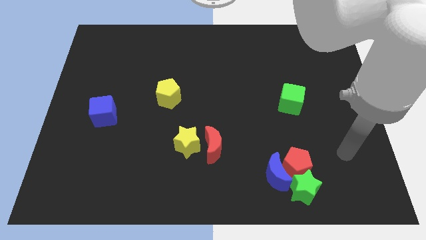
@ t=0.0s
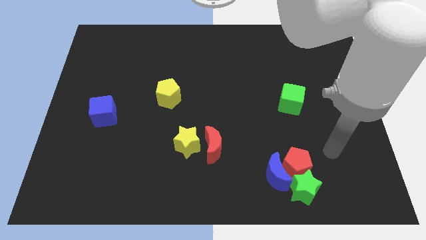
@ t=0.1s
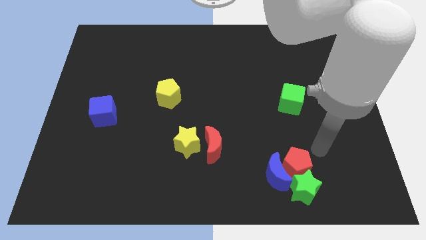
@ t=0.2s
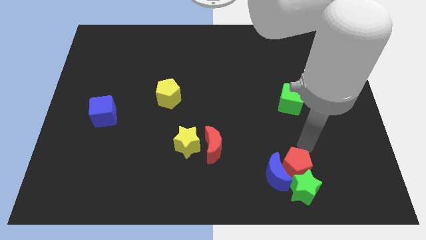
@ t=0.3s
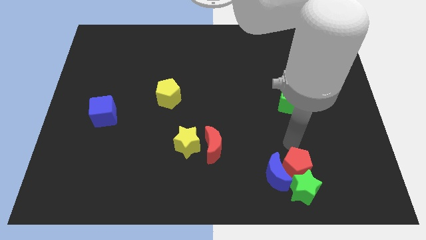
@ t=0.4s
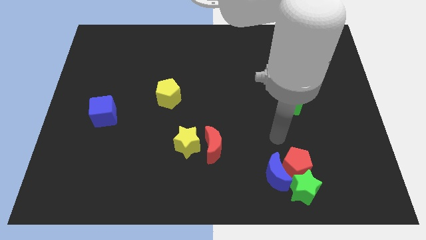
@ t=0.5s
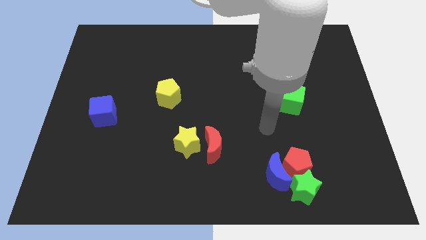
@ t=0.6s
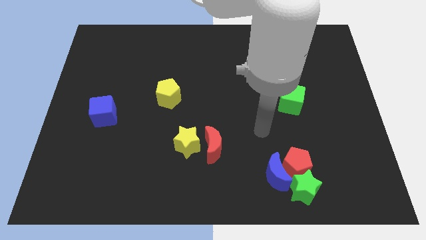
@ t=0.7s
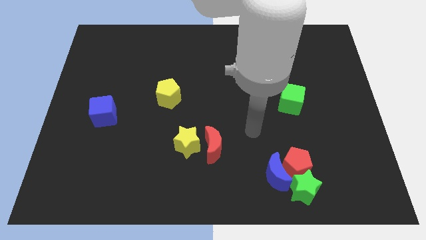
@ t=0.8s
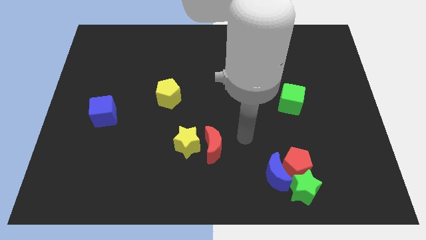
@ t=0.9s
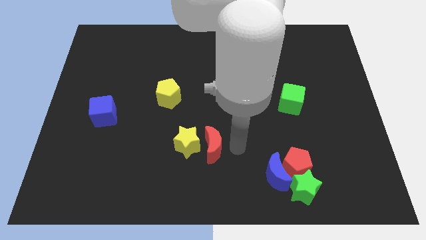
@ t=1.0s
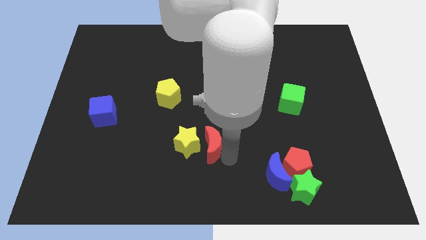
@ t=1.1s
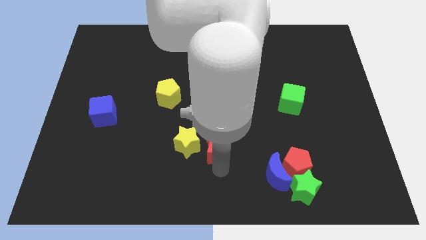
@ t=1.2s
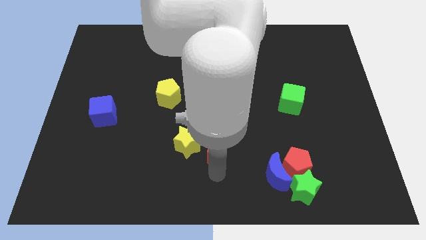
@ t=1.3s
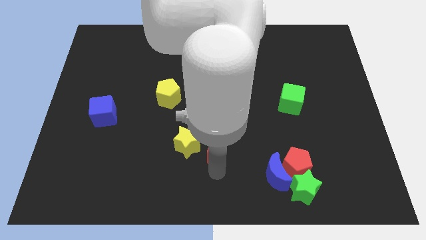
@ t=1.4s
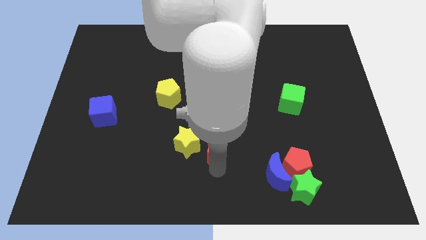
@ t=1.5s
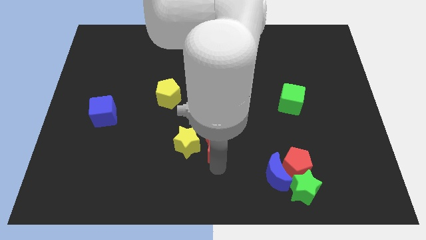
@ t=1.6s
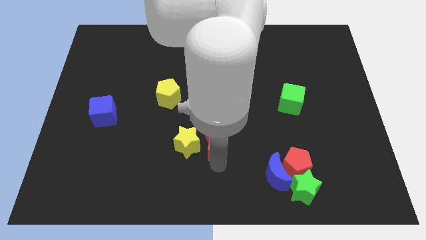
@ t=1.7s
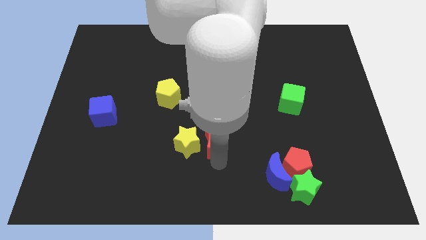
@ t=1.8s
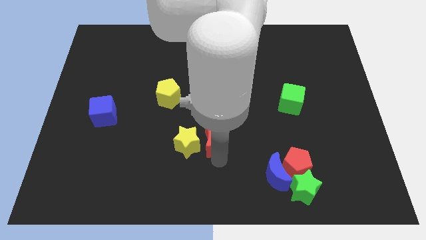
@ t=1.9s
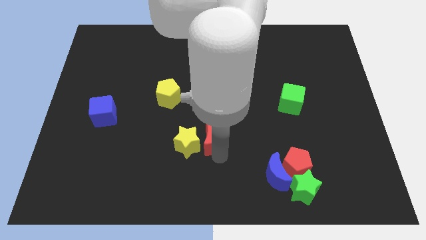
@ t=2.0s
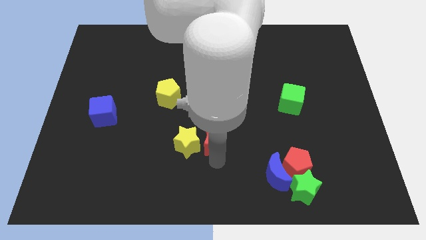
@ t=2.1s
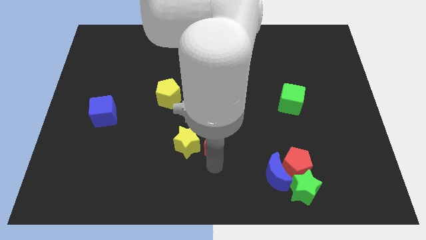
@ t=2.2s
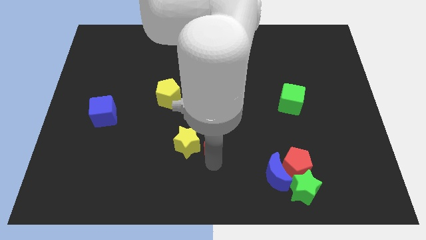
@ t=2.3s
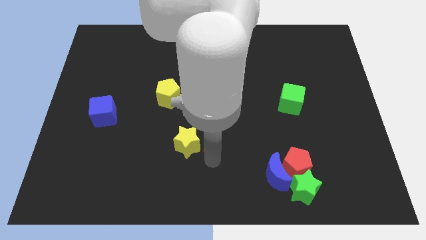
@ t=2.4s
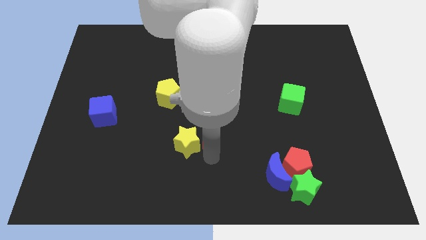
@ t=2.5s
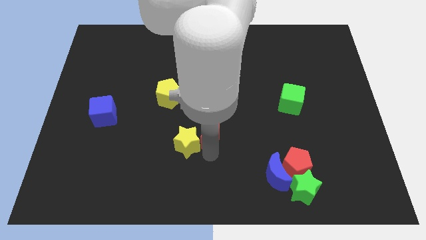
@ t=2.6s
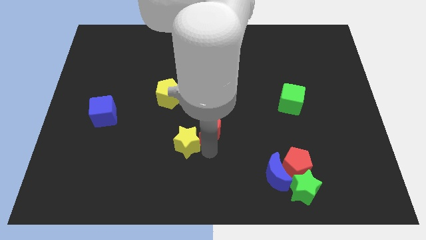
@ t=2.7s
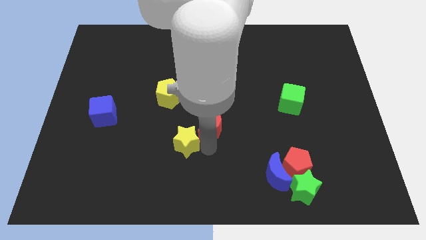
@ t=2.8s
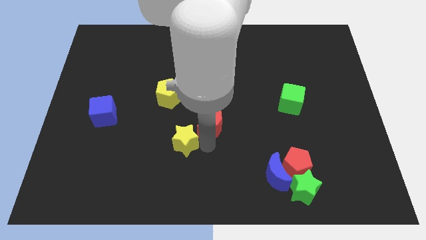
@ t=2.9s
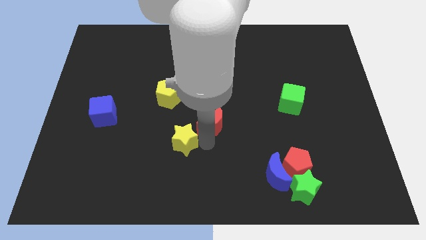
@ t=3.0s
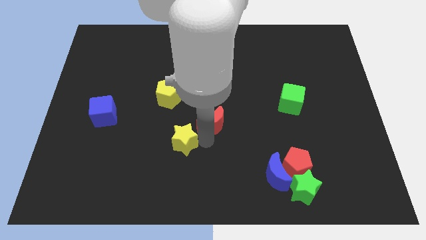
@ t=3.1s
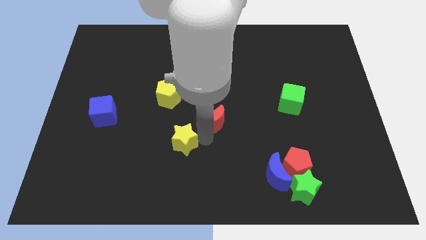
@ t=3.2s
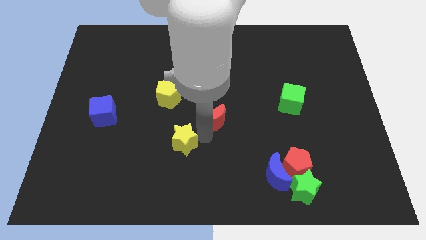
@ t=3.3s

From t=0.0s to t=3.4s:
slightly push the red moon upwards

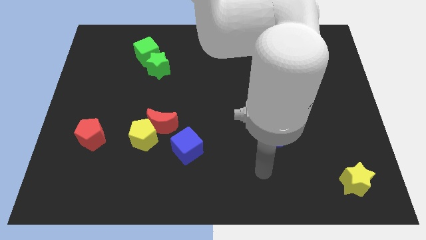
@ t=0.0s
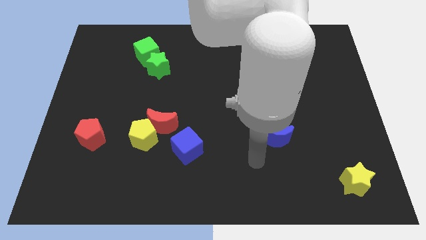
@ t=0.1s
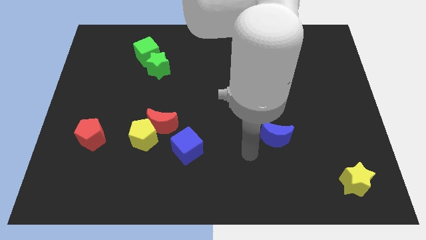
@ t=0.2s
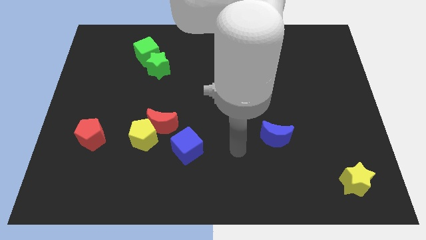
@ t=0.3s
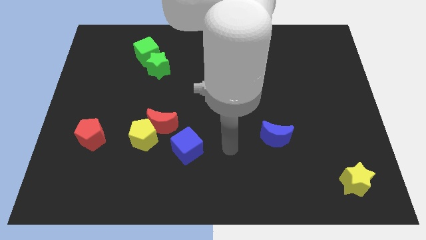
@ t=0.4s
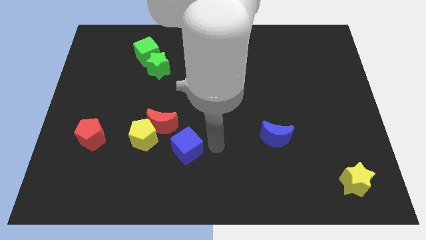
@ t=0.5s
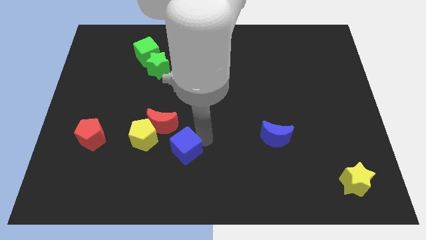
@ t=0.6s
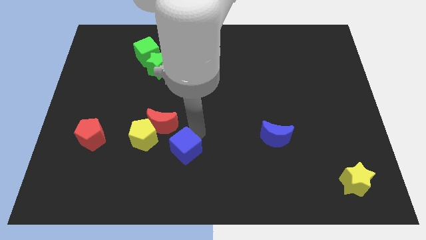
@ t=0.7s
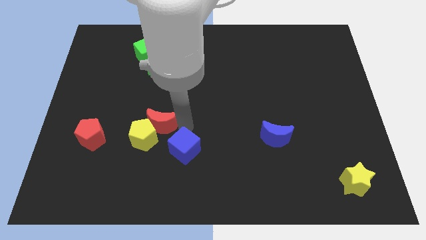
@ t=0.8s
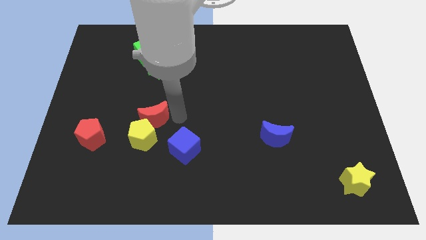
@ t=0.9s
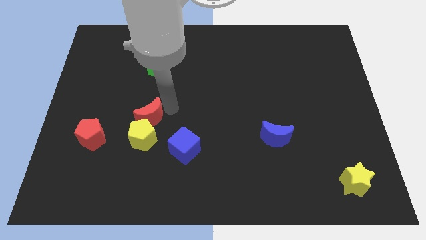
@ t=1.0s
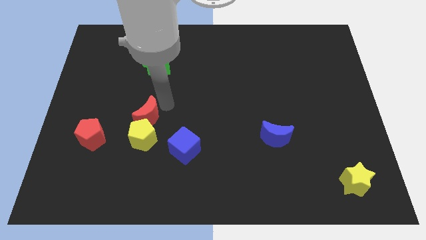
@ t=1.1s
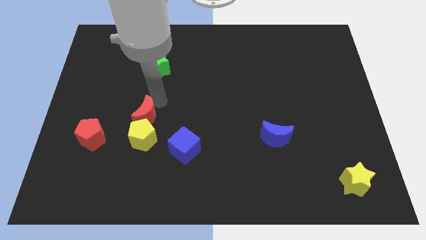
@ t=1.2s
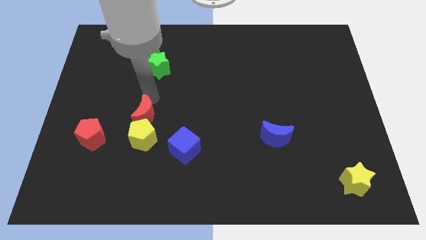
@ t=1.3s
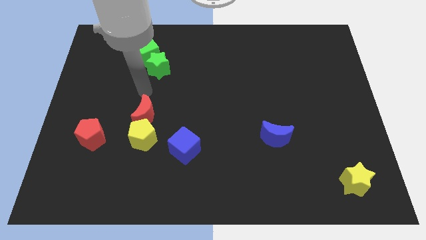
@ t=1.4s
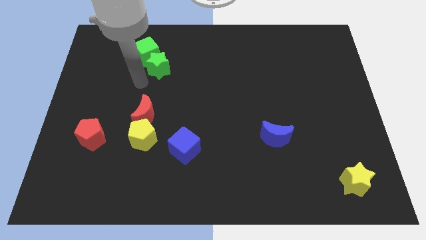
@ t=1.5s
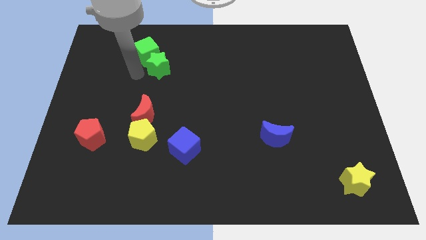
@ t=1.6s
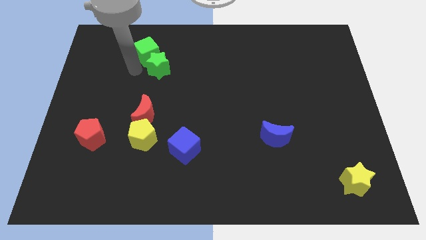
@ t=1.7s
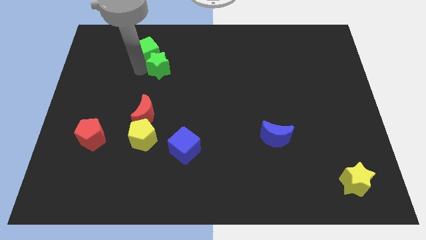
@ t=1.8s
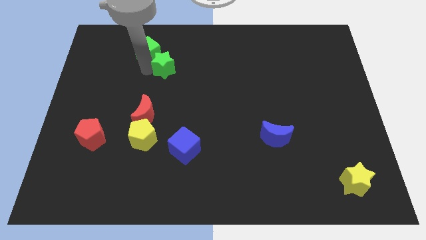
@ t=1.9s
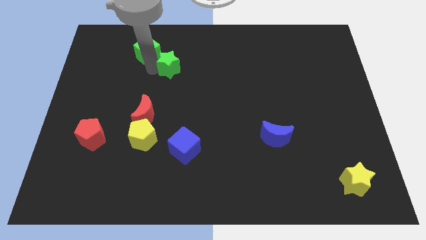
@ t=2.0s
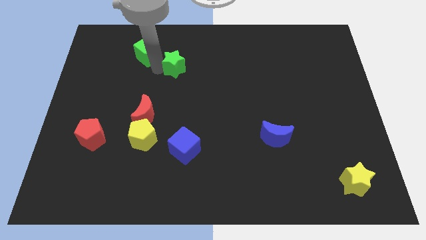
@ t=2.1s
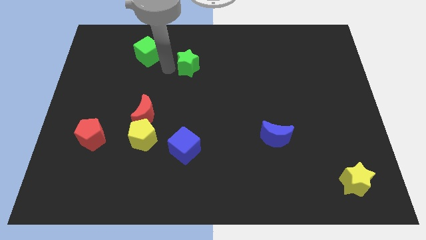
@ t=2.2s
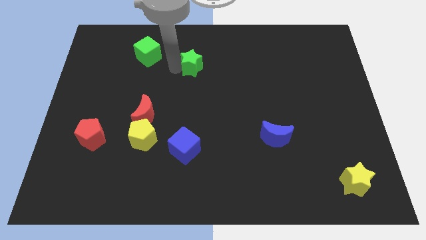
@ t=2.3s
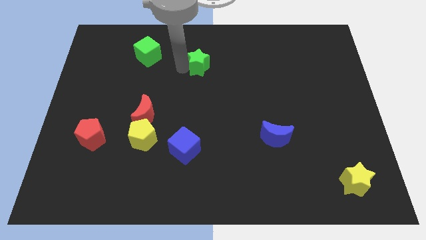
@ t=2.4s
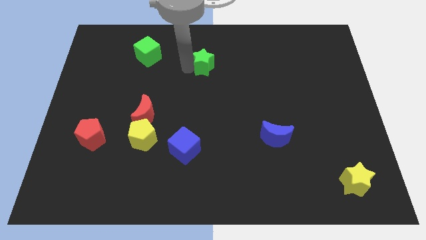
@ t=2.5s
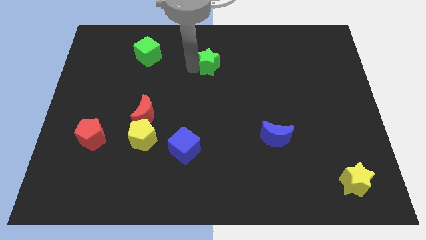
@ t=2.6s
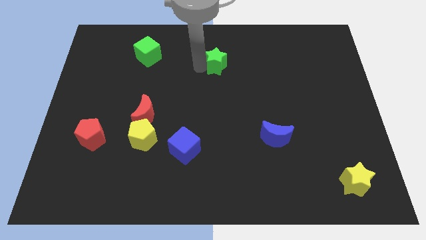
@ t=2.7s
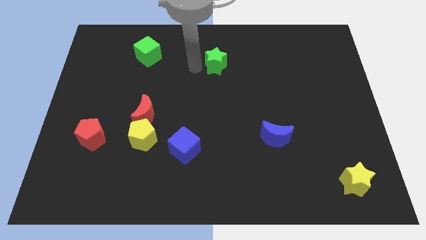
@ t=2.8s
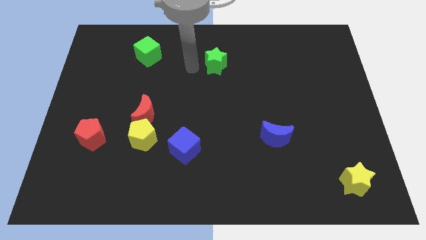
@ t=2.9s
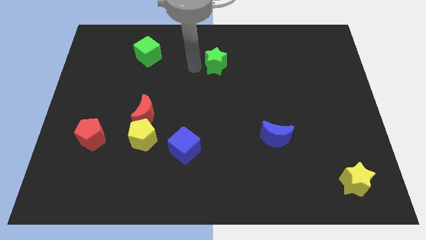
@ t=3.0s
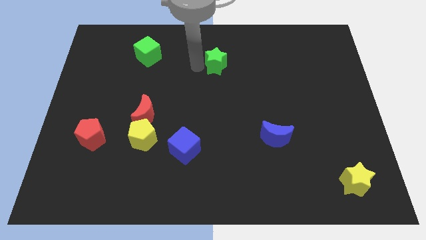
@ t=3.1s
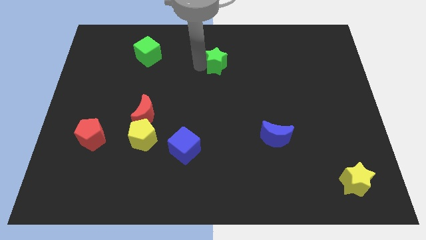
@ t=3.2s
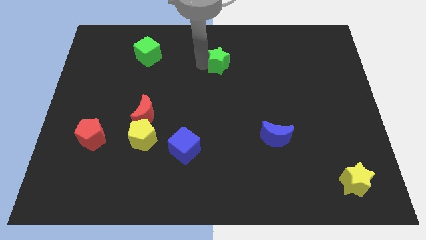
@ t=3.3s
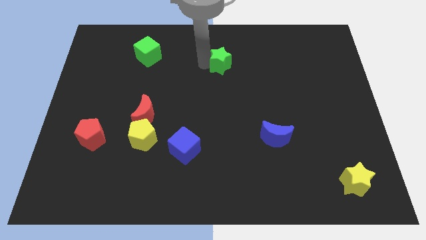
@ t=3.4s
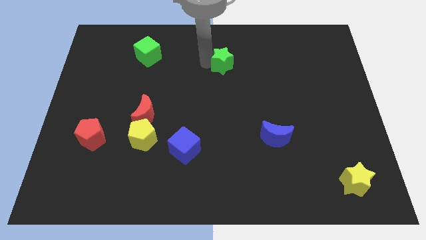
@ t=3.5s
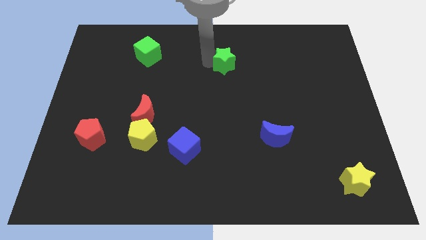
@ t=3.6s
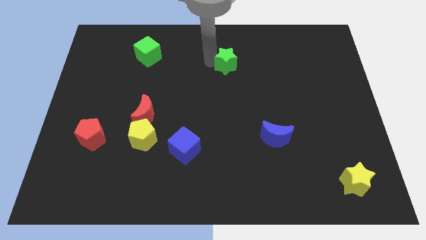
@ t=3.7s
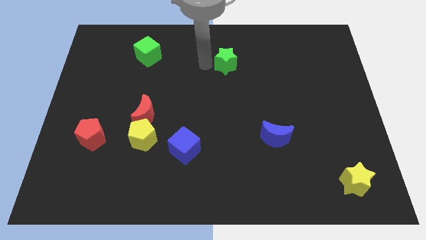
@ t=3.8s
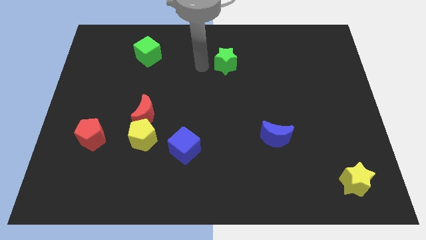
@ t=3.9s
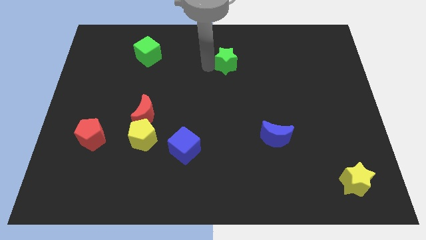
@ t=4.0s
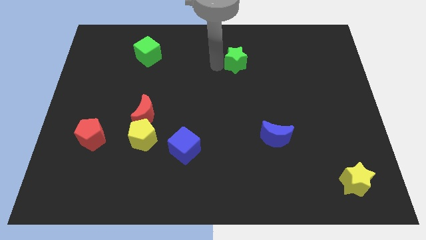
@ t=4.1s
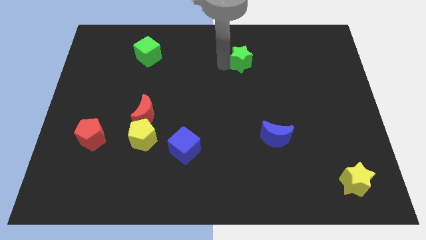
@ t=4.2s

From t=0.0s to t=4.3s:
push the green star right

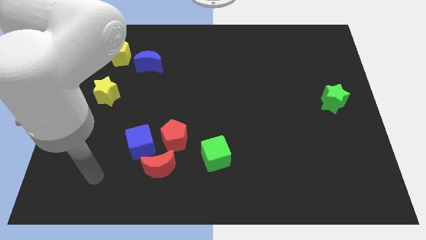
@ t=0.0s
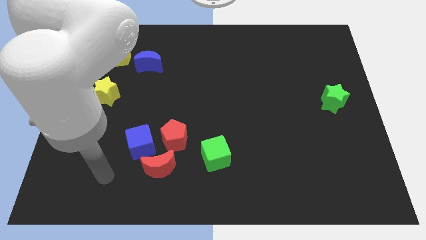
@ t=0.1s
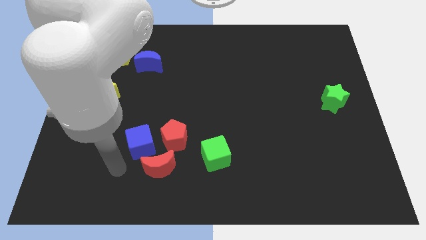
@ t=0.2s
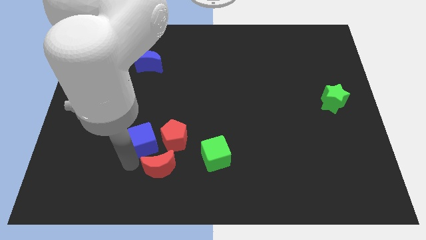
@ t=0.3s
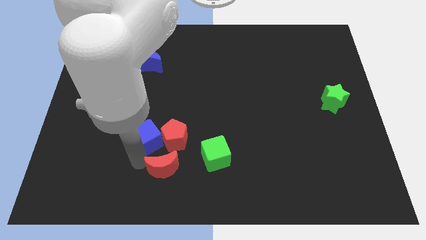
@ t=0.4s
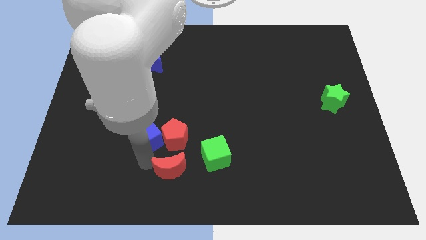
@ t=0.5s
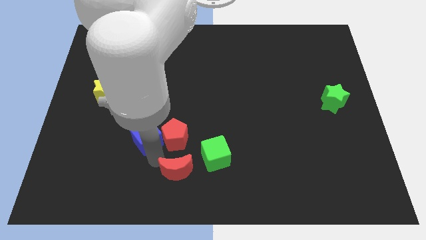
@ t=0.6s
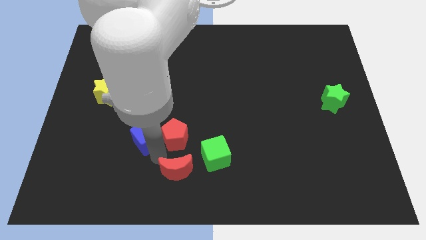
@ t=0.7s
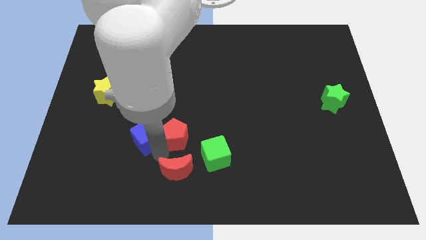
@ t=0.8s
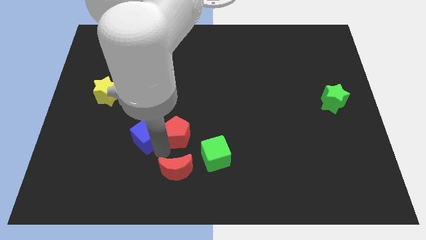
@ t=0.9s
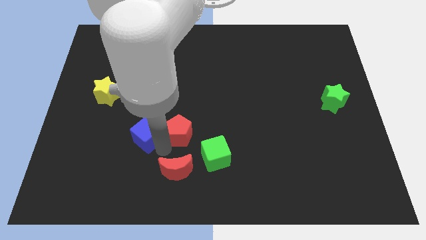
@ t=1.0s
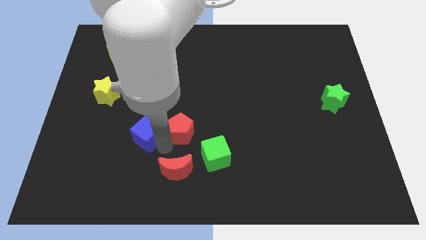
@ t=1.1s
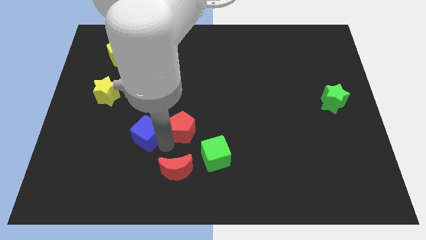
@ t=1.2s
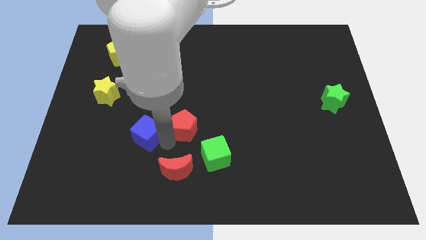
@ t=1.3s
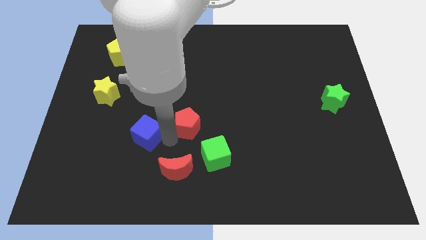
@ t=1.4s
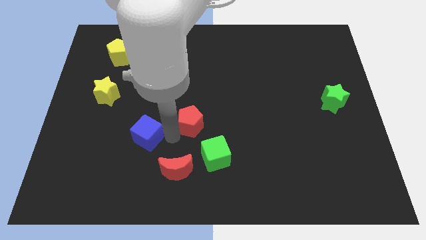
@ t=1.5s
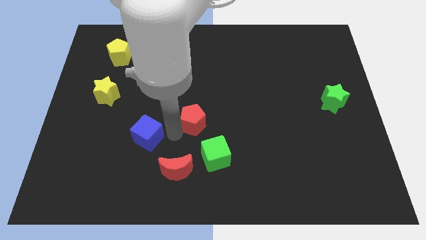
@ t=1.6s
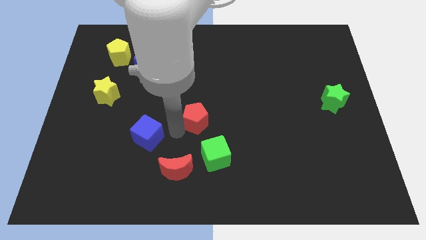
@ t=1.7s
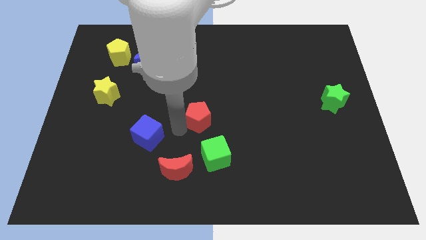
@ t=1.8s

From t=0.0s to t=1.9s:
push the red pentagon up and then to the right a little
